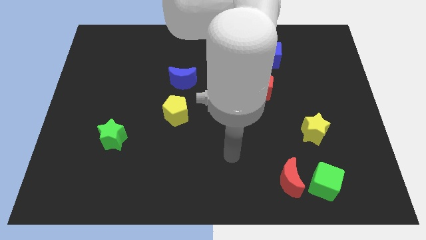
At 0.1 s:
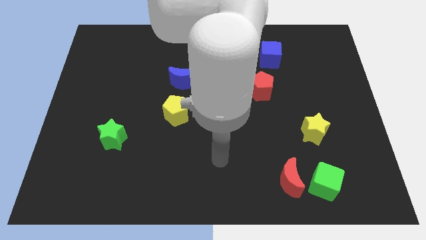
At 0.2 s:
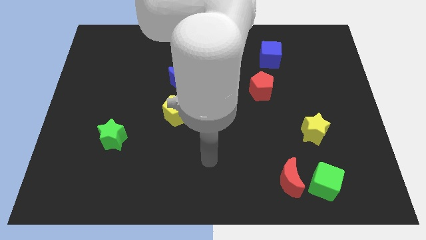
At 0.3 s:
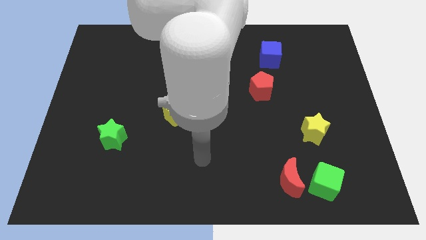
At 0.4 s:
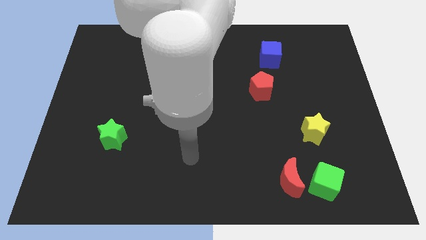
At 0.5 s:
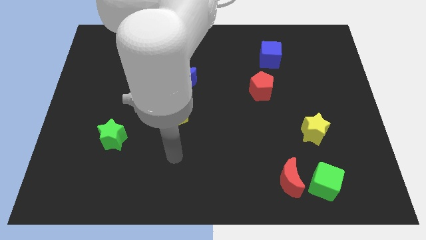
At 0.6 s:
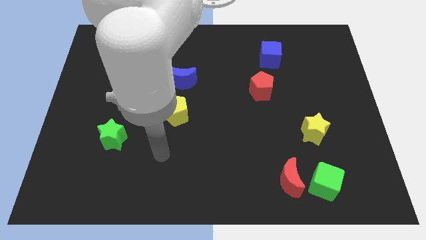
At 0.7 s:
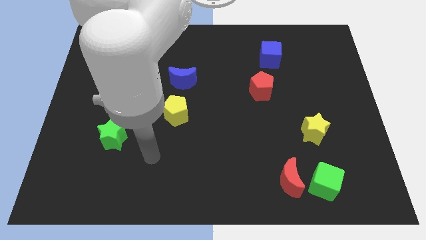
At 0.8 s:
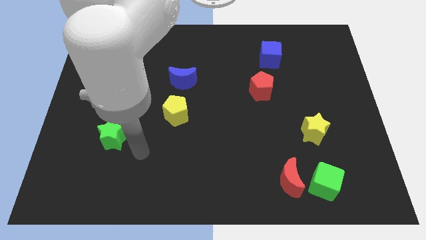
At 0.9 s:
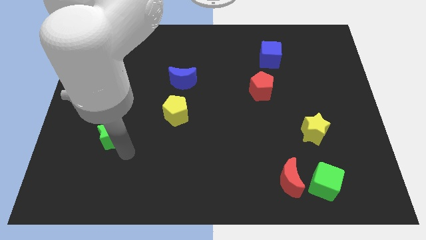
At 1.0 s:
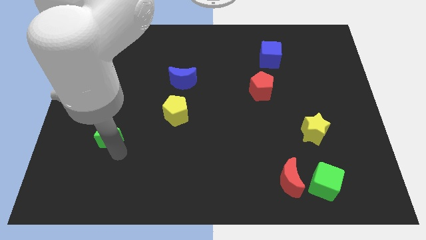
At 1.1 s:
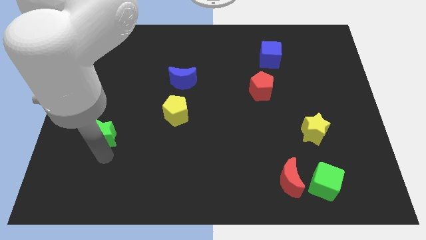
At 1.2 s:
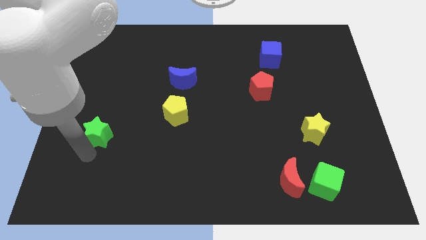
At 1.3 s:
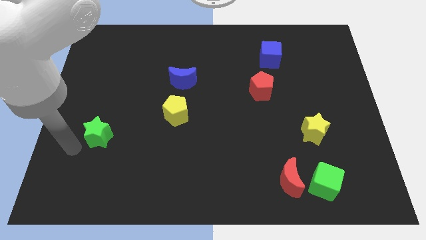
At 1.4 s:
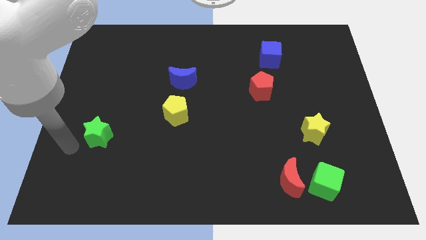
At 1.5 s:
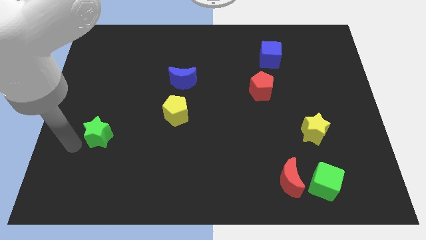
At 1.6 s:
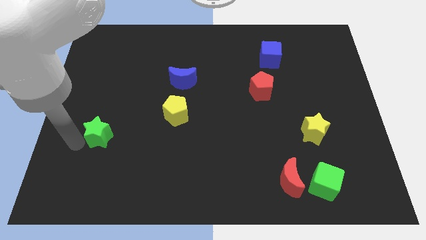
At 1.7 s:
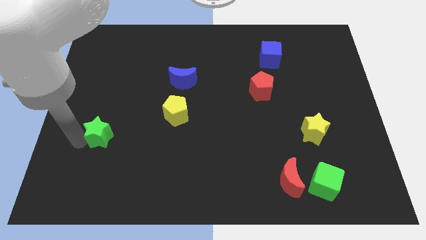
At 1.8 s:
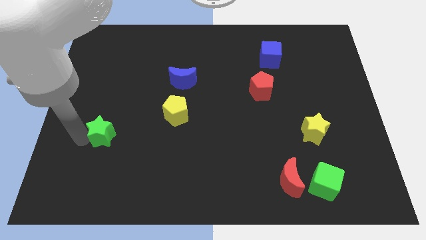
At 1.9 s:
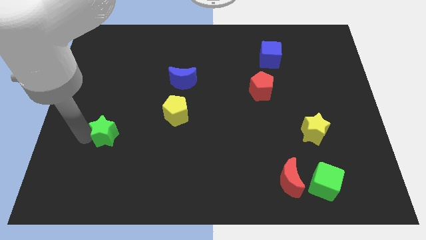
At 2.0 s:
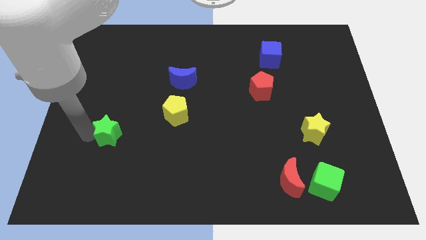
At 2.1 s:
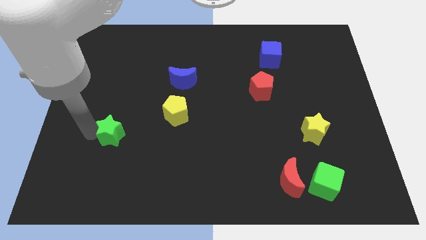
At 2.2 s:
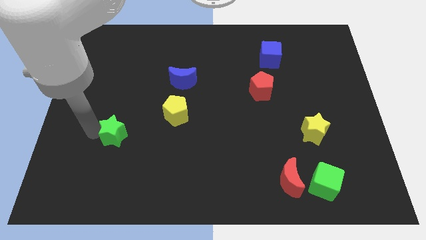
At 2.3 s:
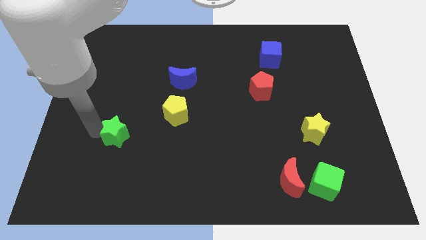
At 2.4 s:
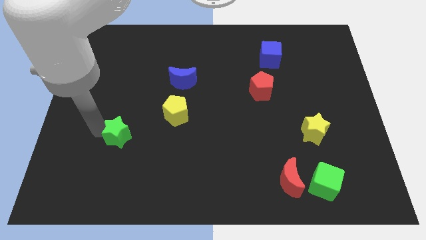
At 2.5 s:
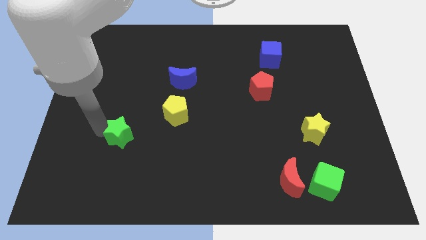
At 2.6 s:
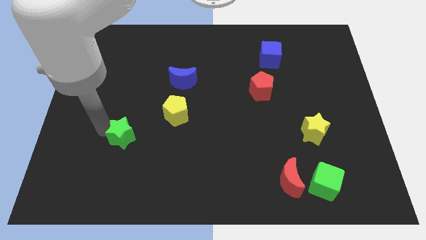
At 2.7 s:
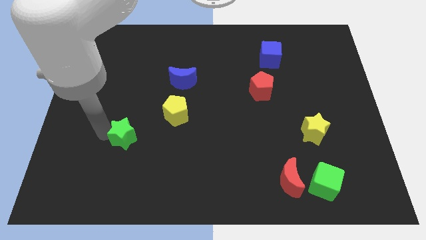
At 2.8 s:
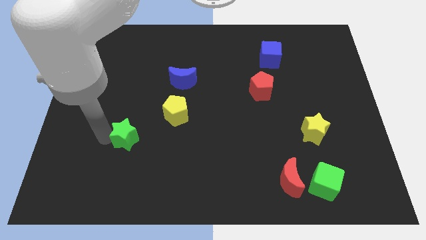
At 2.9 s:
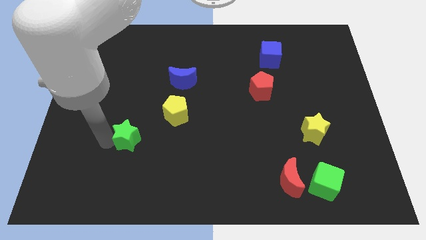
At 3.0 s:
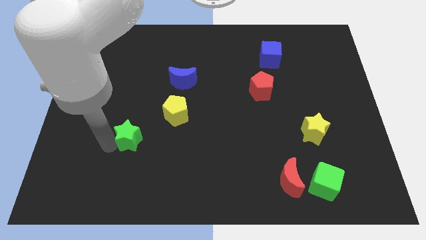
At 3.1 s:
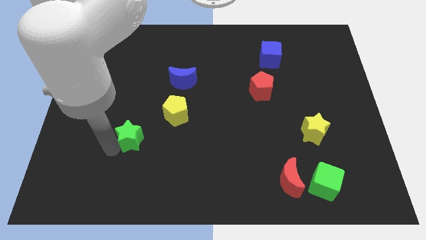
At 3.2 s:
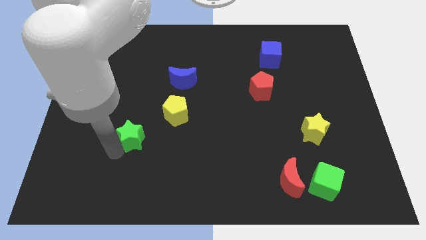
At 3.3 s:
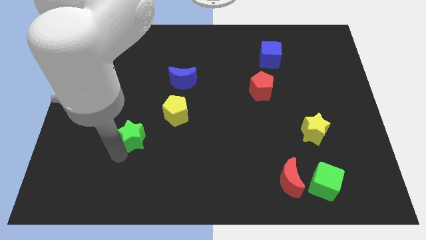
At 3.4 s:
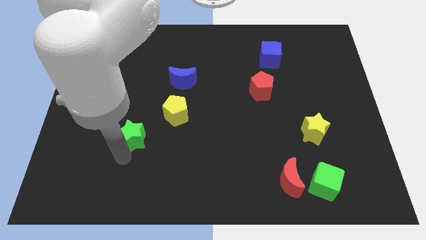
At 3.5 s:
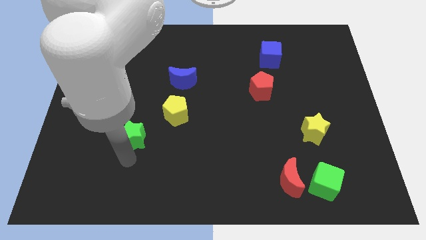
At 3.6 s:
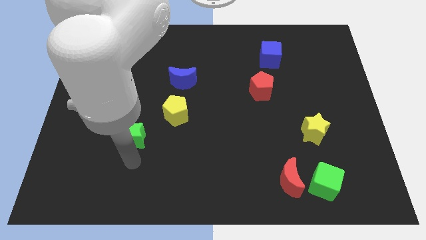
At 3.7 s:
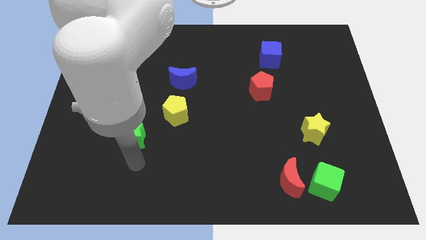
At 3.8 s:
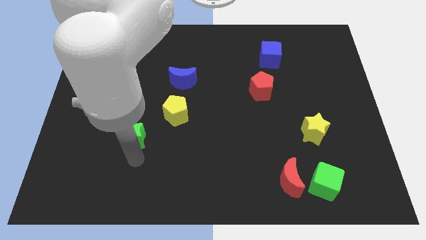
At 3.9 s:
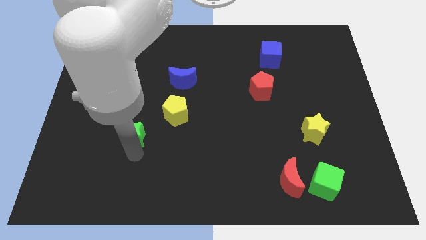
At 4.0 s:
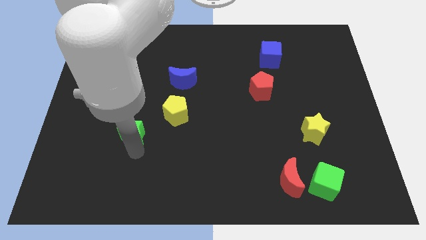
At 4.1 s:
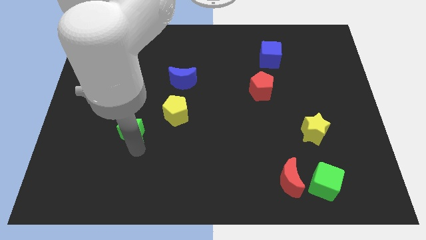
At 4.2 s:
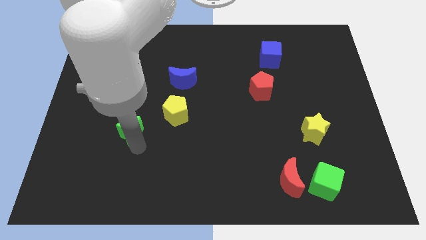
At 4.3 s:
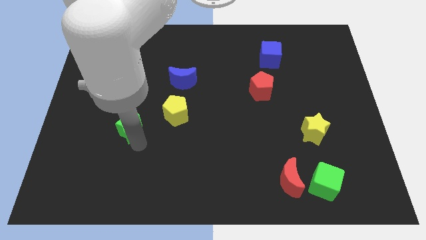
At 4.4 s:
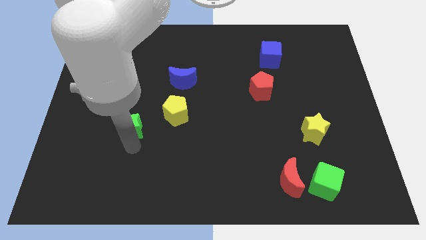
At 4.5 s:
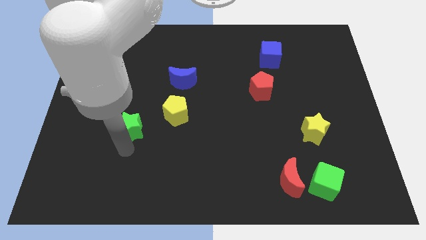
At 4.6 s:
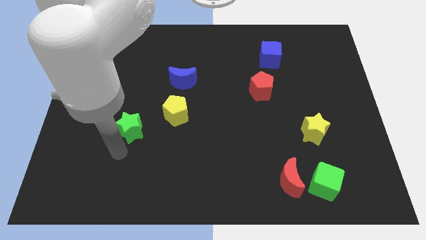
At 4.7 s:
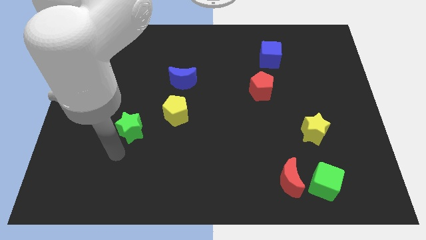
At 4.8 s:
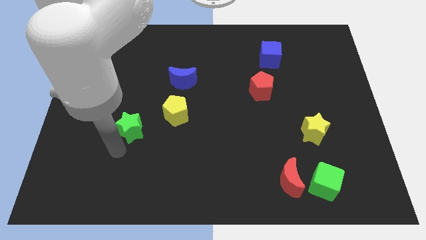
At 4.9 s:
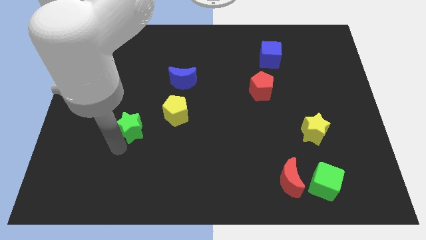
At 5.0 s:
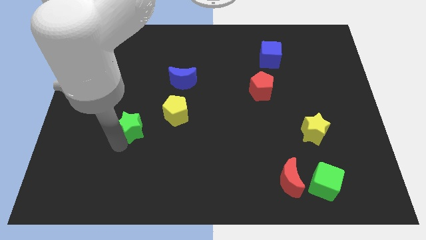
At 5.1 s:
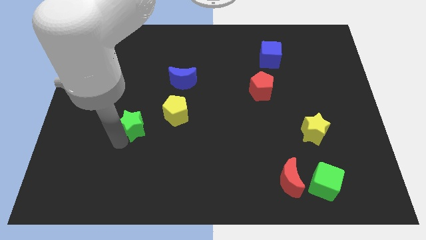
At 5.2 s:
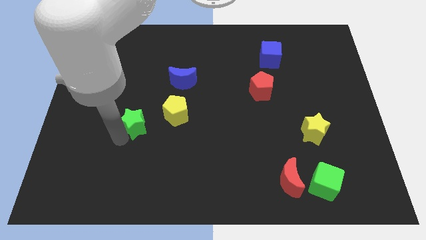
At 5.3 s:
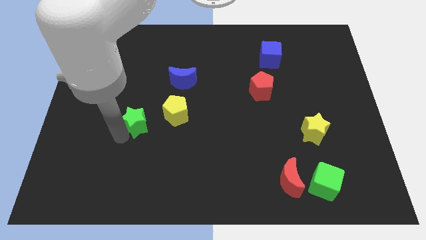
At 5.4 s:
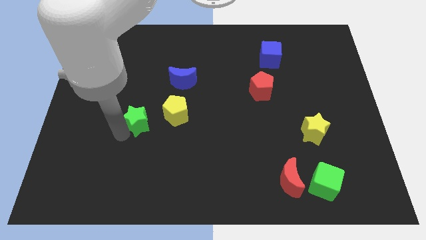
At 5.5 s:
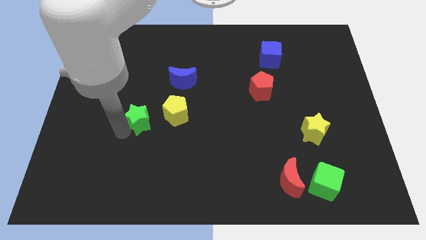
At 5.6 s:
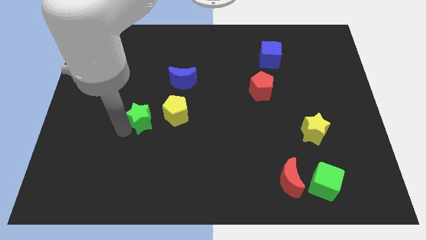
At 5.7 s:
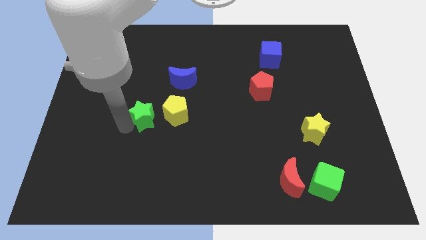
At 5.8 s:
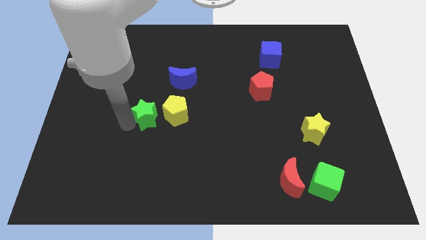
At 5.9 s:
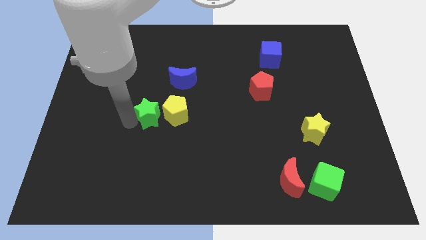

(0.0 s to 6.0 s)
put the green star to the top left side of the yellow pentagon

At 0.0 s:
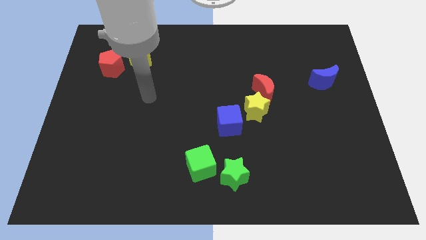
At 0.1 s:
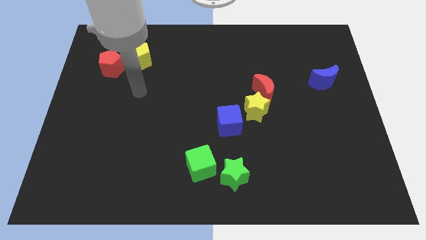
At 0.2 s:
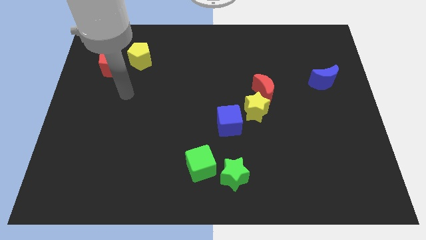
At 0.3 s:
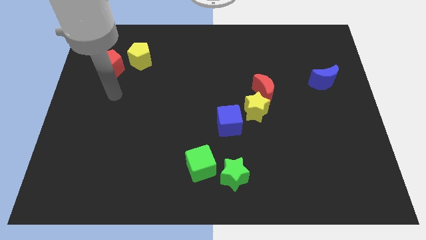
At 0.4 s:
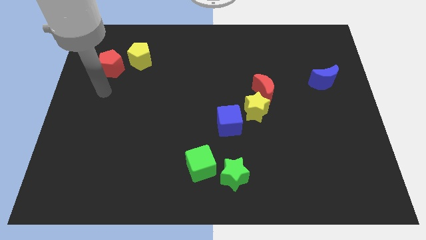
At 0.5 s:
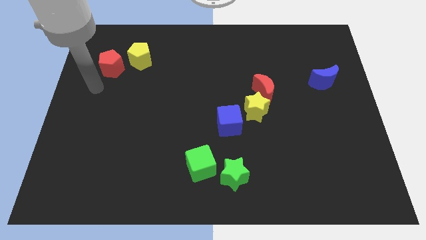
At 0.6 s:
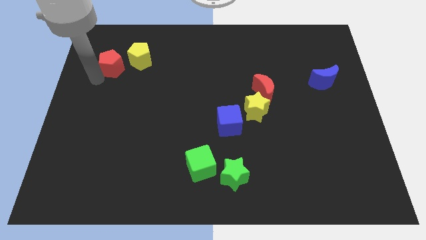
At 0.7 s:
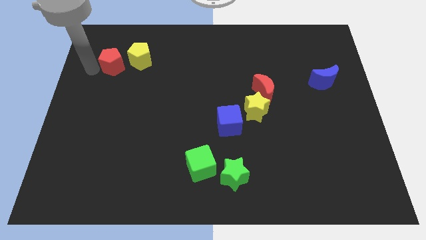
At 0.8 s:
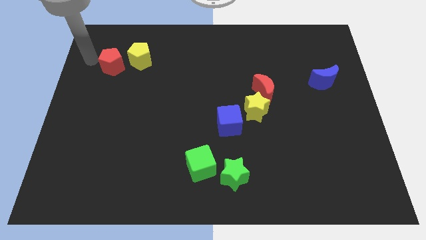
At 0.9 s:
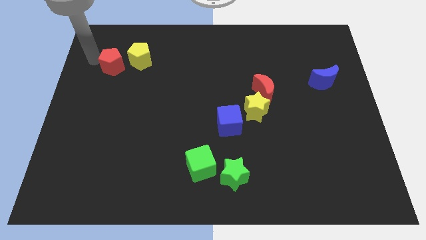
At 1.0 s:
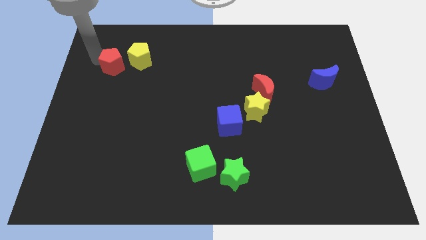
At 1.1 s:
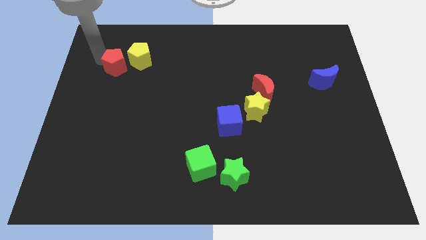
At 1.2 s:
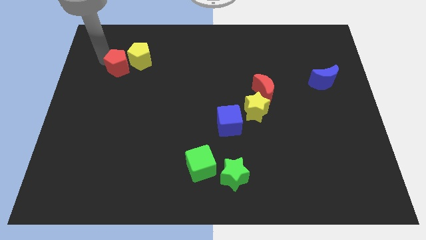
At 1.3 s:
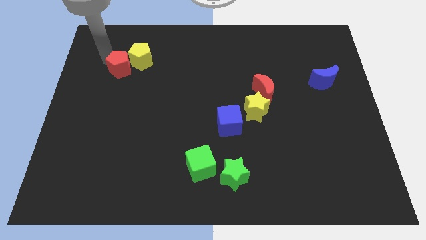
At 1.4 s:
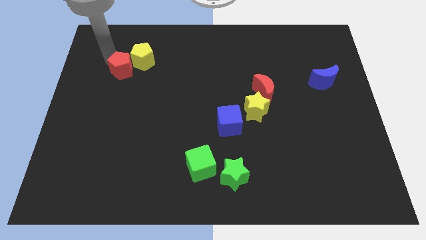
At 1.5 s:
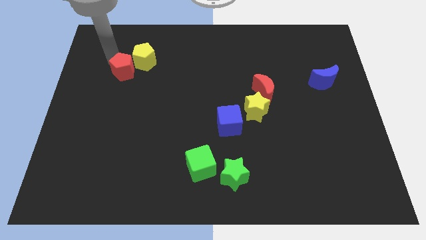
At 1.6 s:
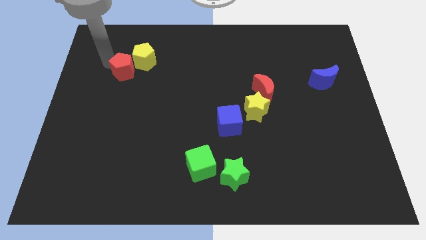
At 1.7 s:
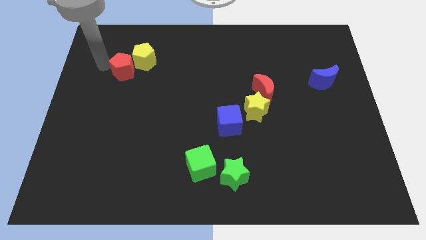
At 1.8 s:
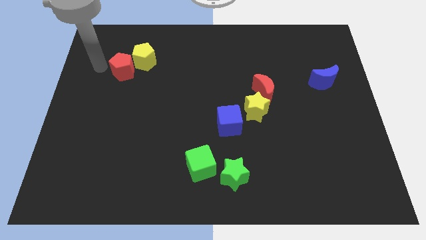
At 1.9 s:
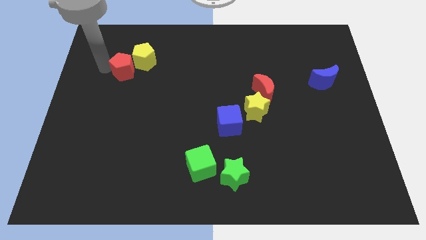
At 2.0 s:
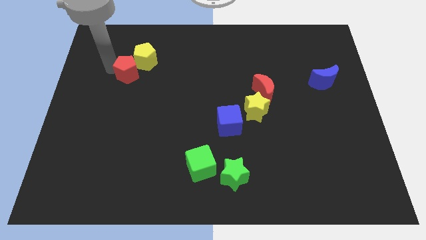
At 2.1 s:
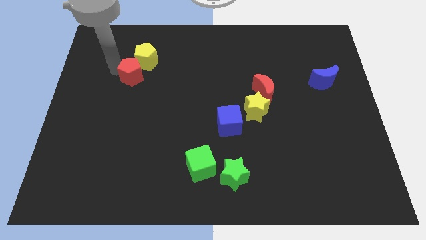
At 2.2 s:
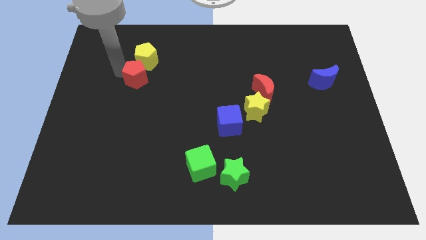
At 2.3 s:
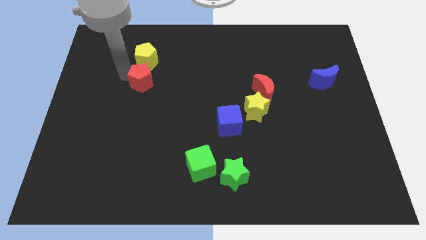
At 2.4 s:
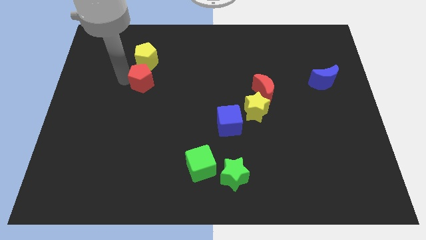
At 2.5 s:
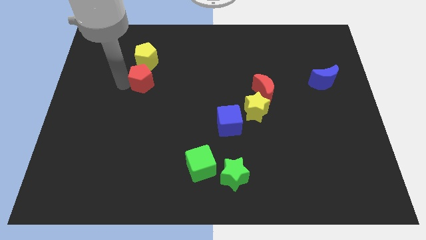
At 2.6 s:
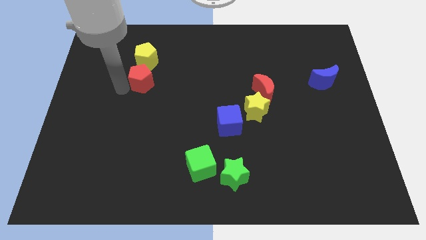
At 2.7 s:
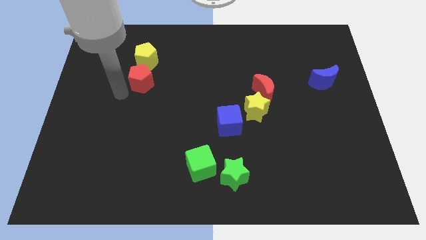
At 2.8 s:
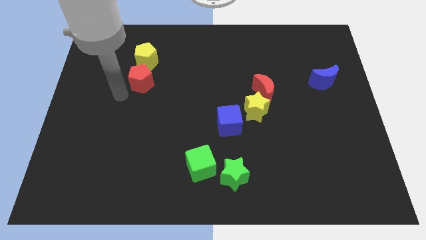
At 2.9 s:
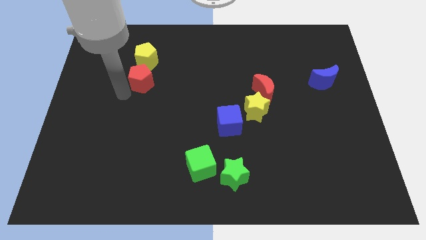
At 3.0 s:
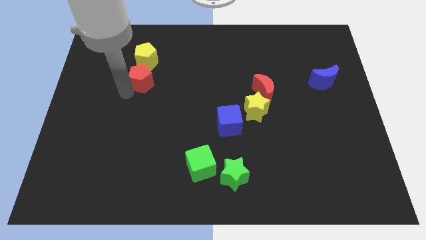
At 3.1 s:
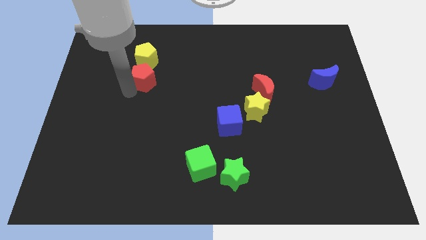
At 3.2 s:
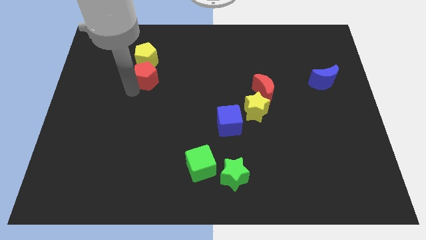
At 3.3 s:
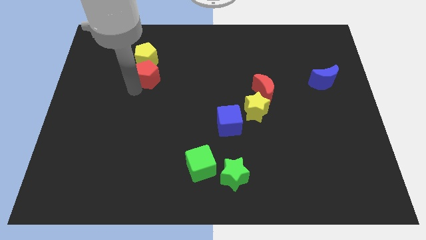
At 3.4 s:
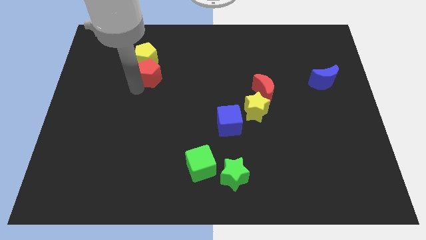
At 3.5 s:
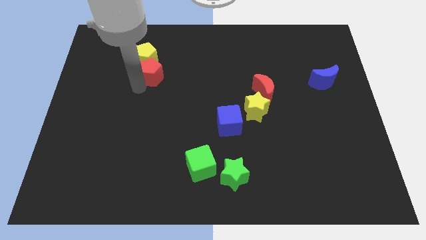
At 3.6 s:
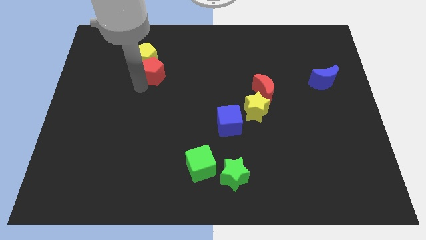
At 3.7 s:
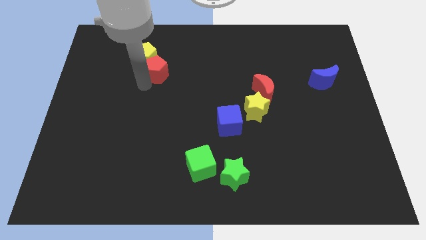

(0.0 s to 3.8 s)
move the red pentagon just right of the yellow pentagon
